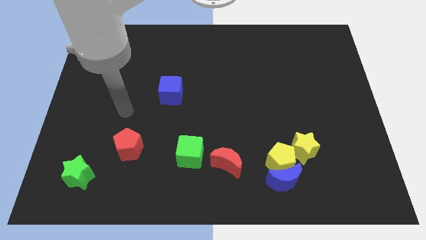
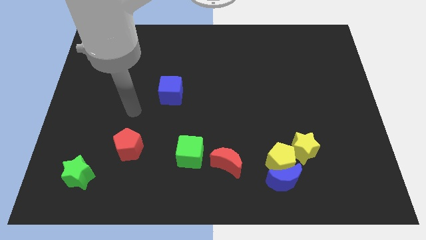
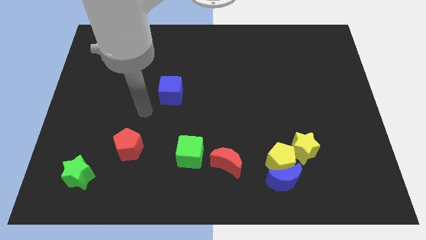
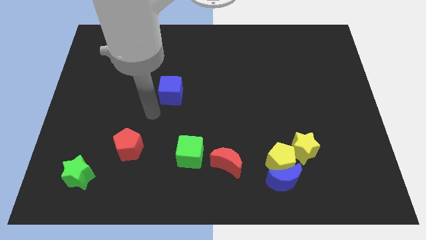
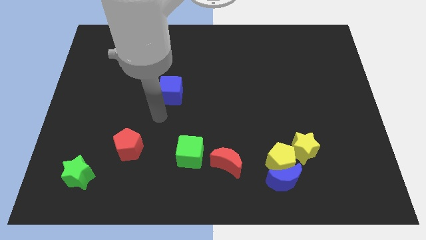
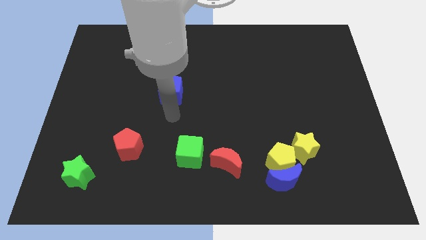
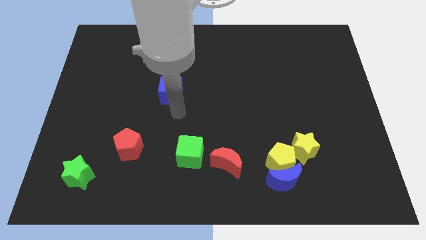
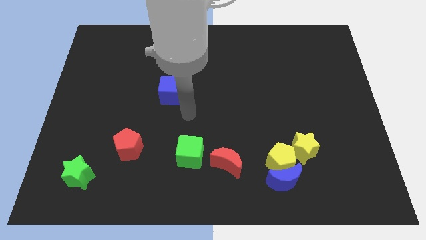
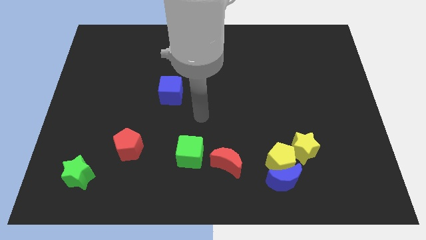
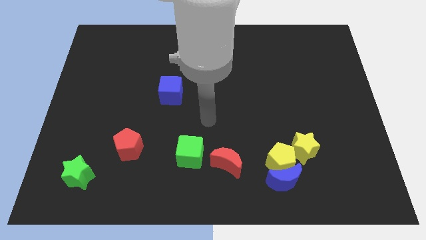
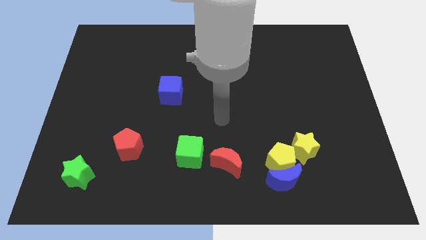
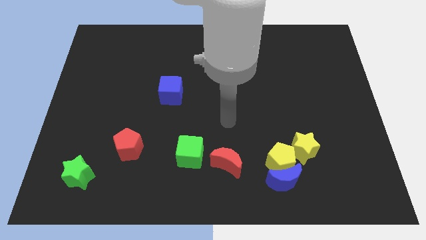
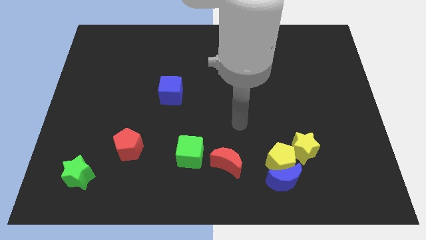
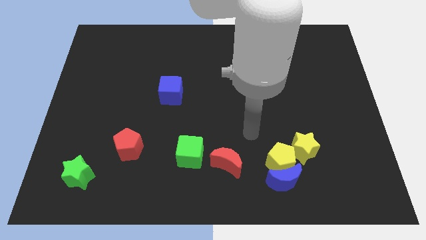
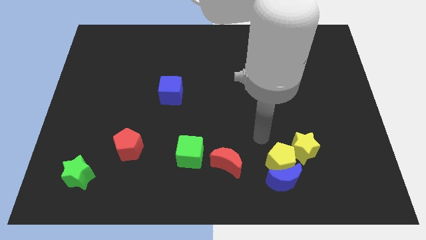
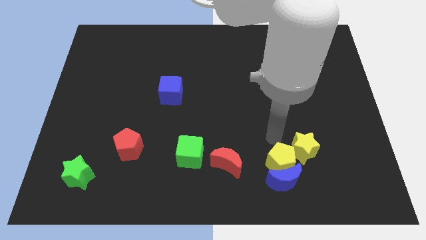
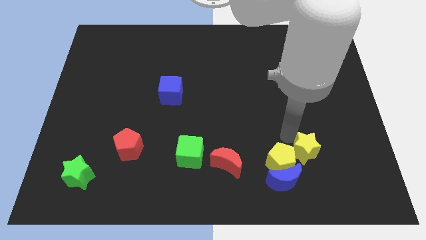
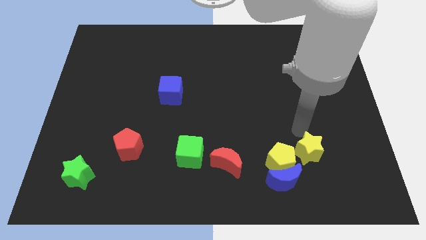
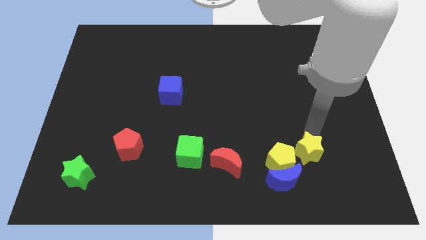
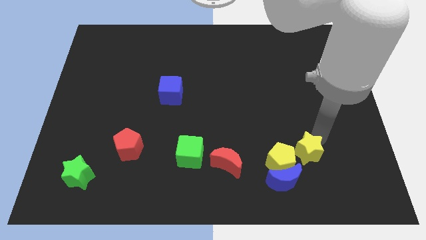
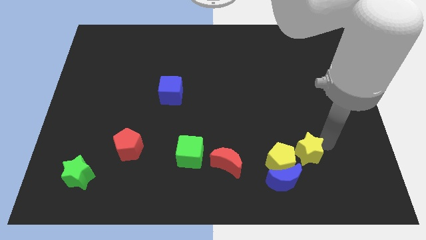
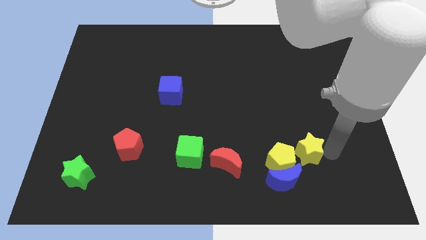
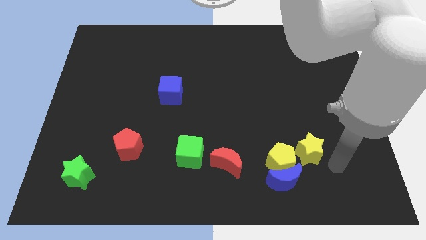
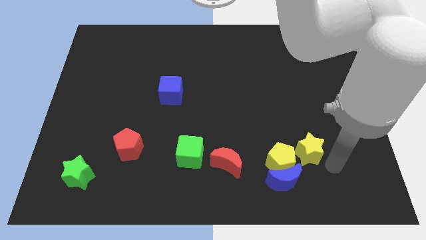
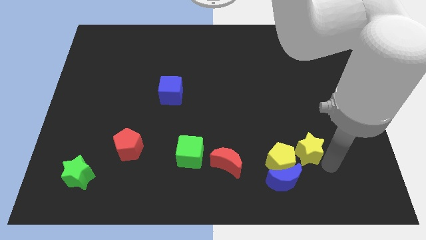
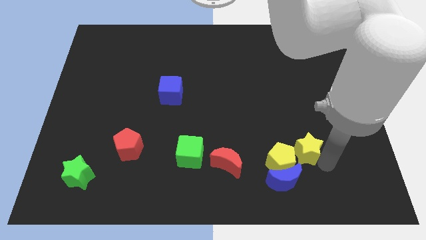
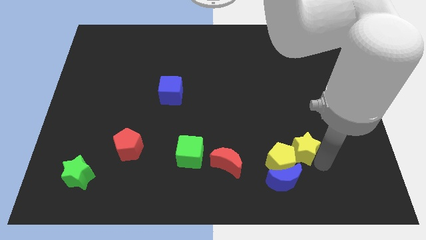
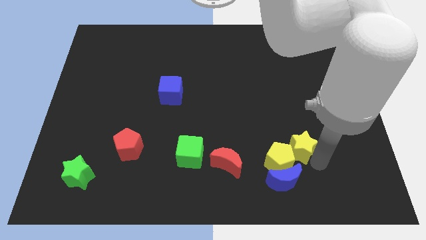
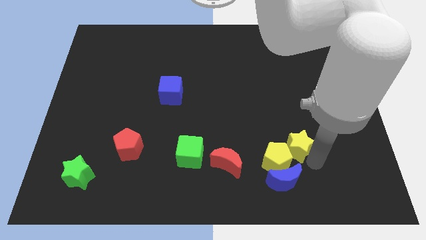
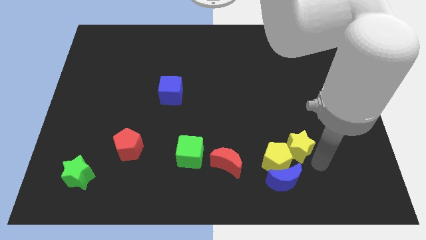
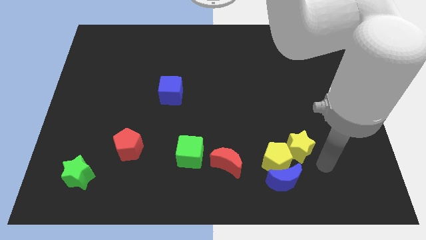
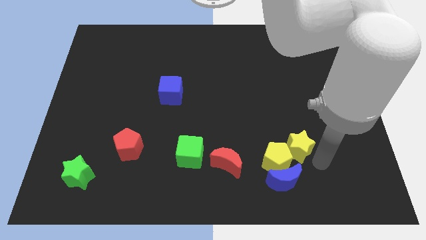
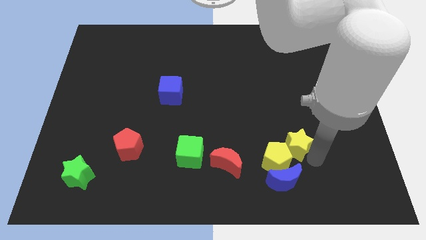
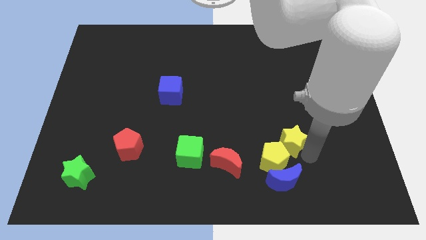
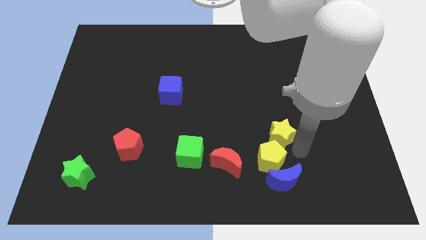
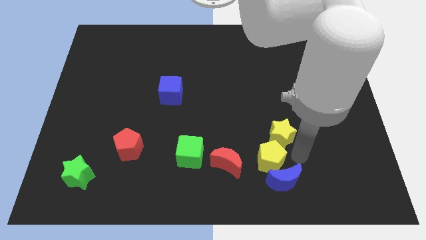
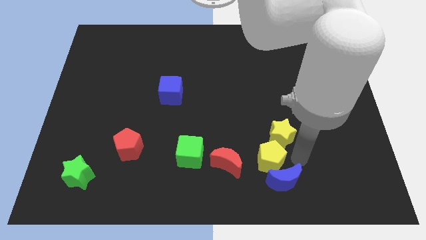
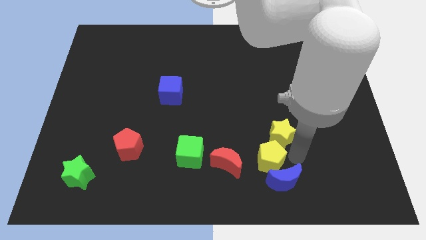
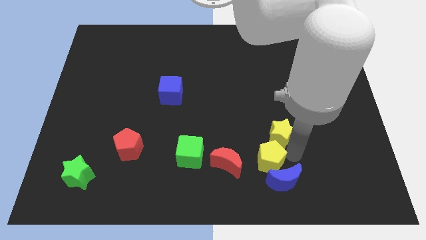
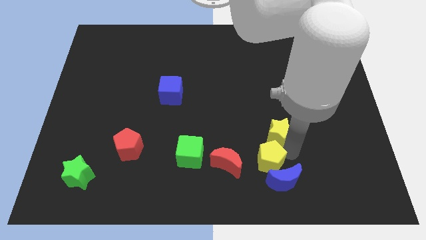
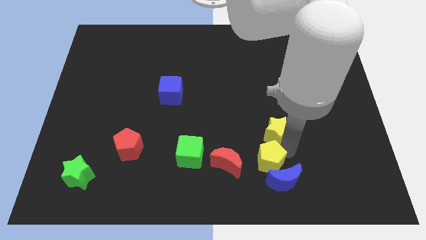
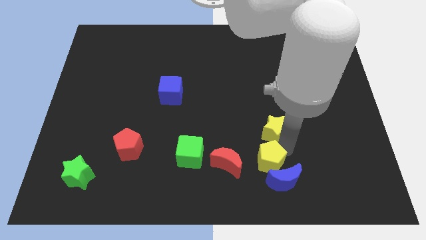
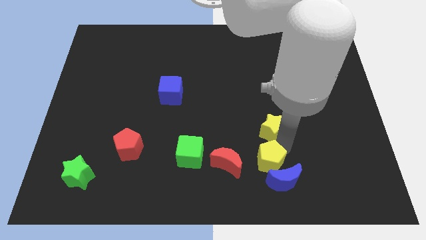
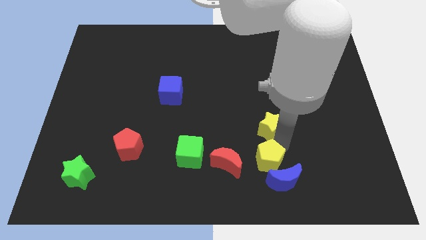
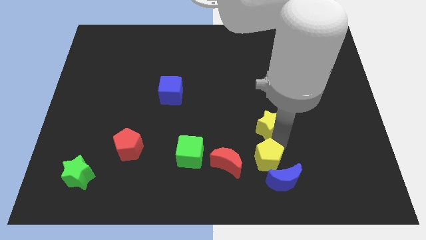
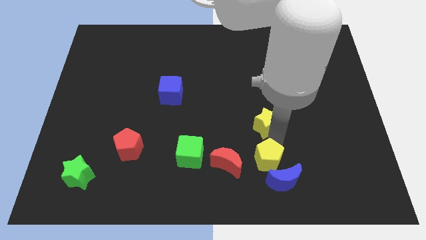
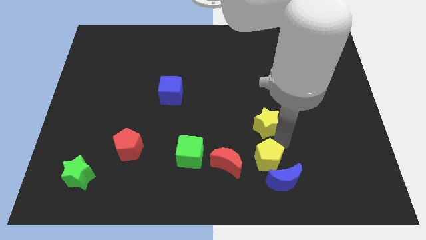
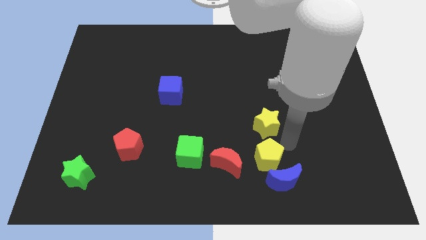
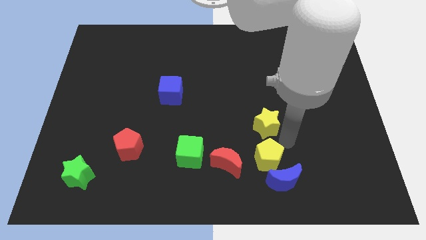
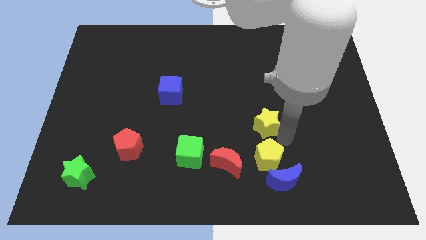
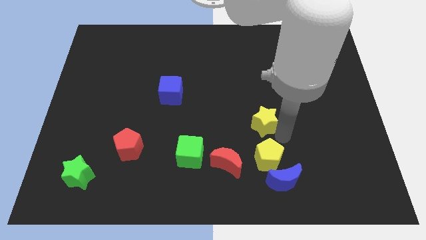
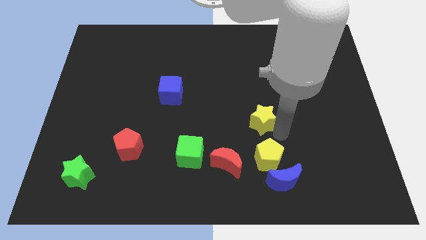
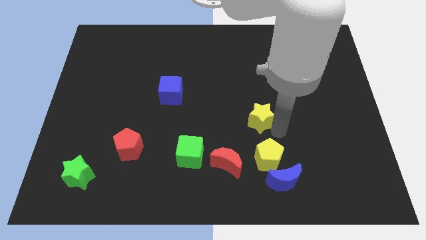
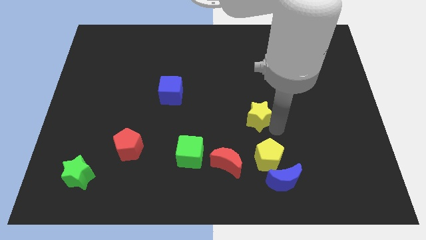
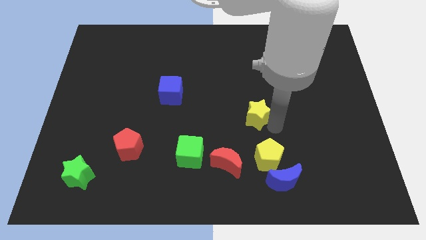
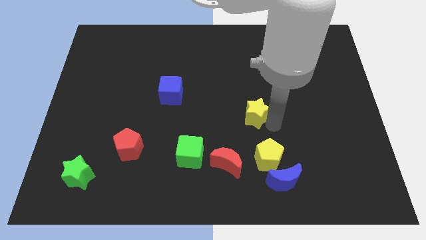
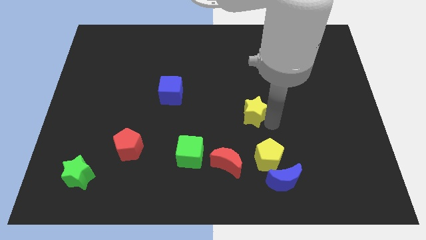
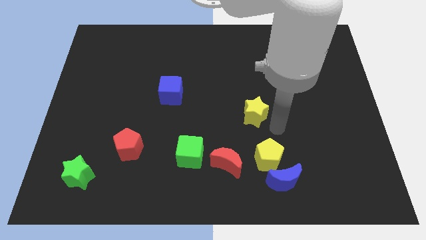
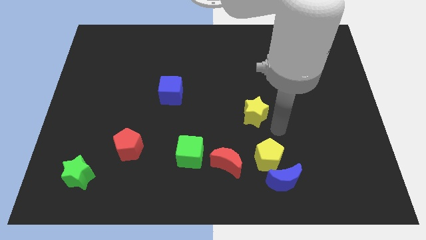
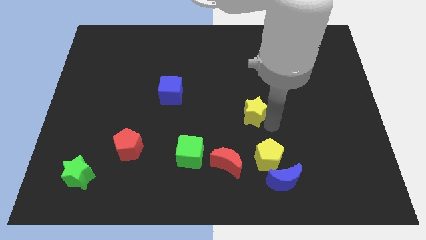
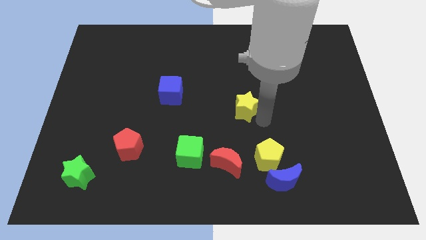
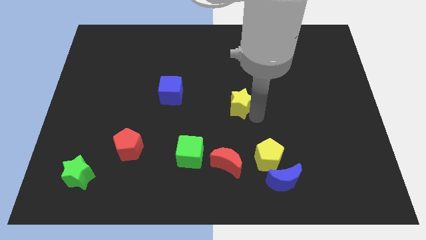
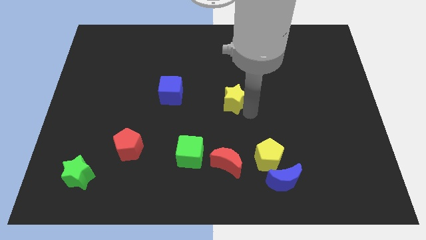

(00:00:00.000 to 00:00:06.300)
slide the yellow star up and left

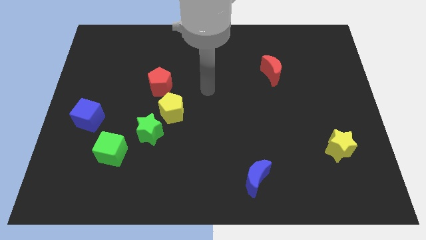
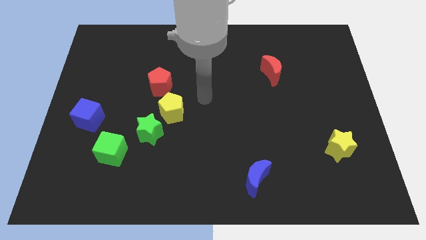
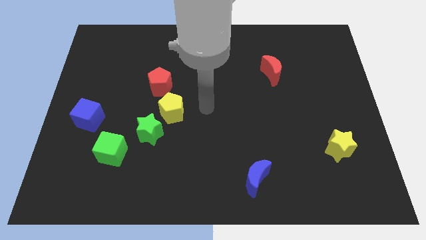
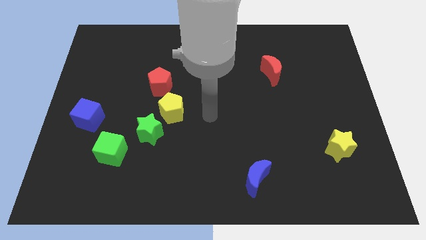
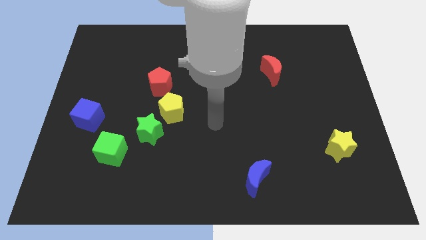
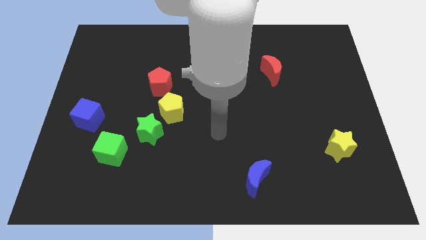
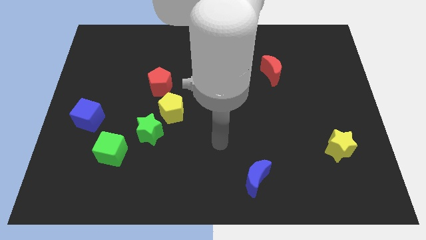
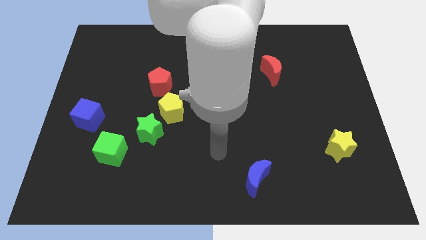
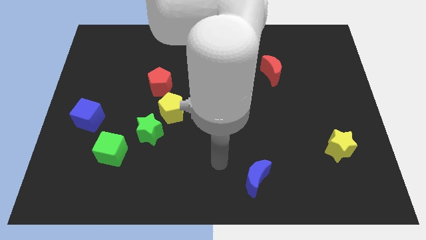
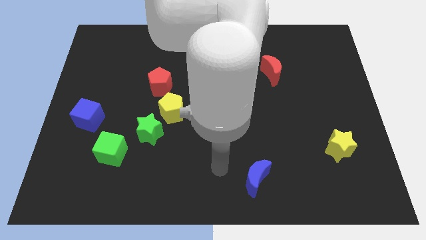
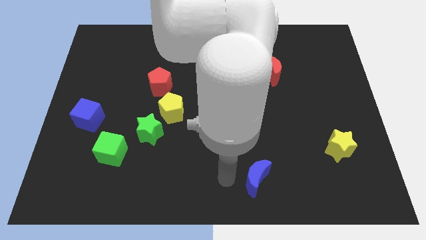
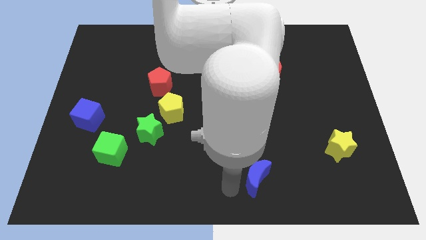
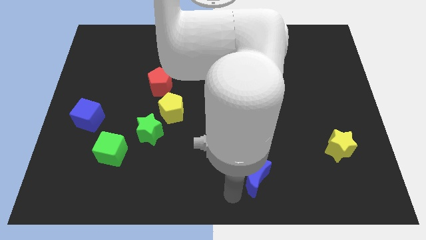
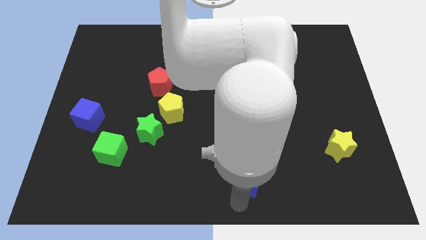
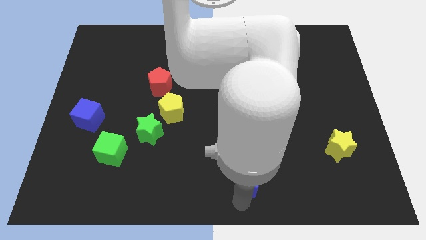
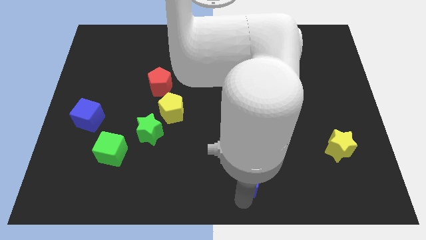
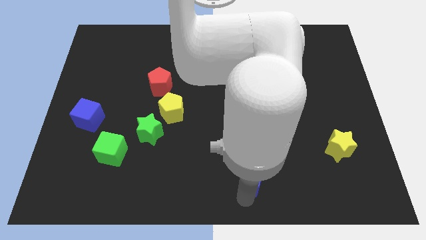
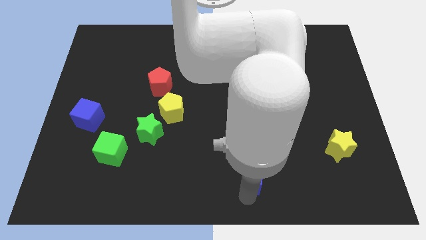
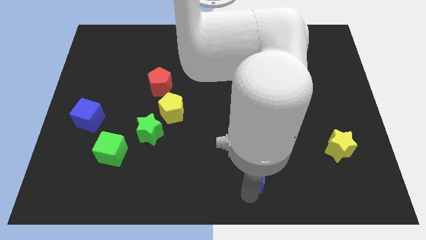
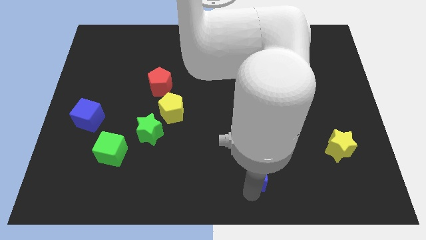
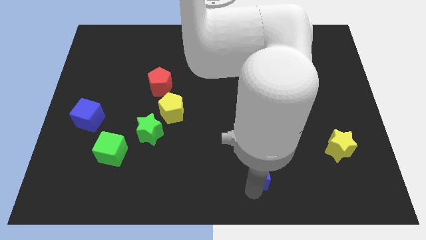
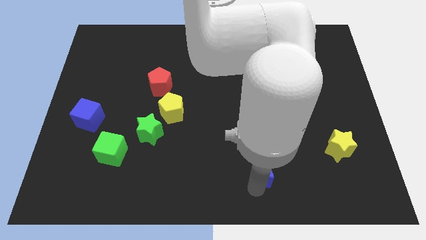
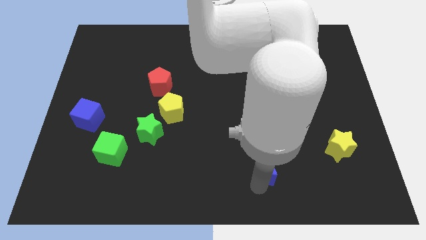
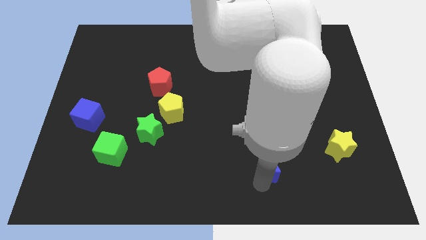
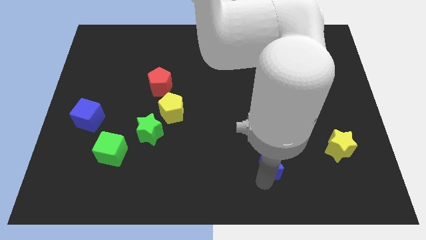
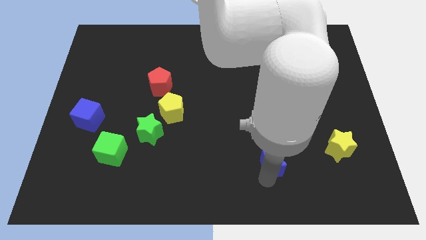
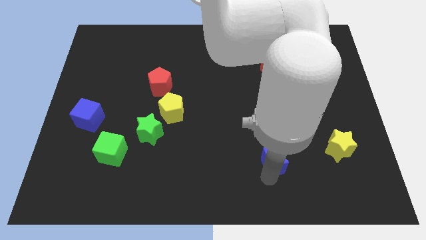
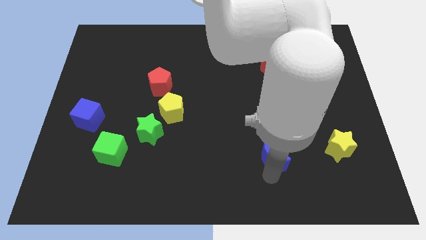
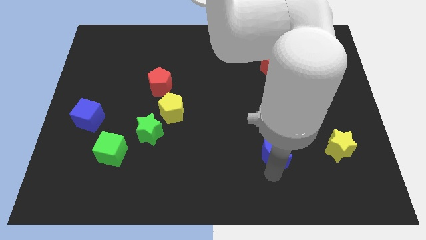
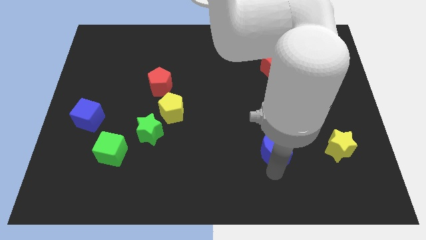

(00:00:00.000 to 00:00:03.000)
slide the blue moon upwards and then right somewhat
